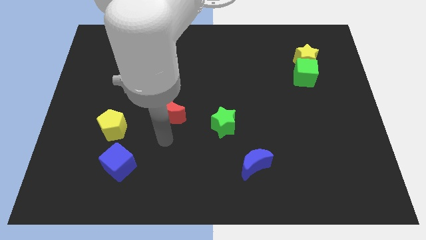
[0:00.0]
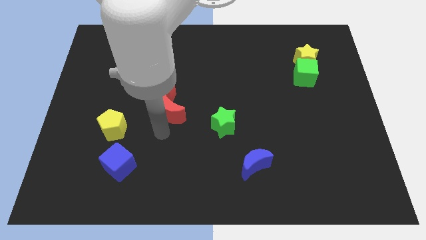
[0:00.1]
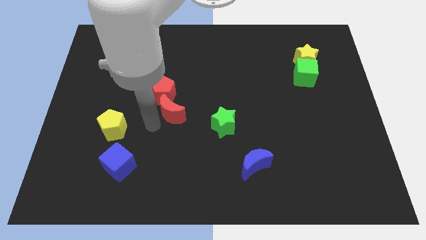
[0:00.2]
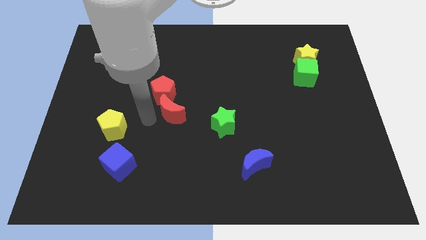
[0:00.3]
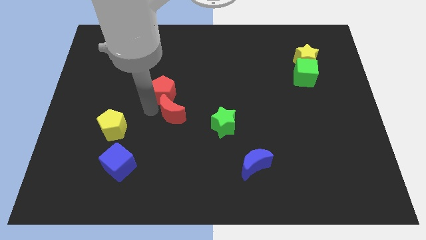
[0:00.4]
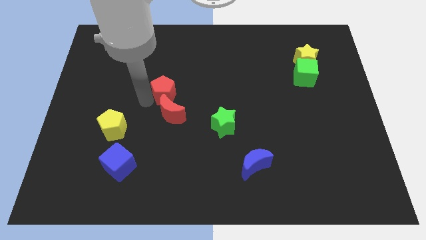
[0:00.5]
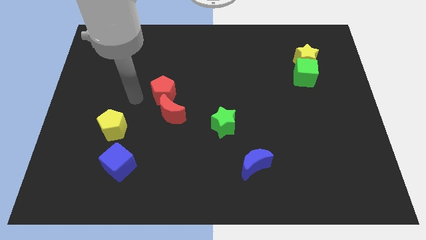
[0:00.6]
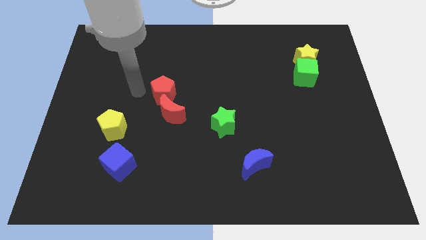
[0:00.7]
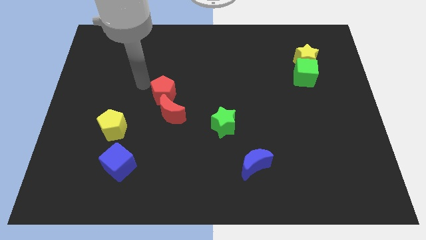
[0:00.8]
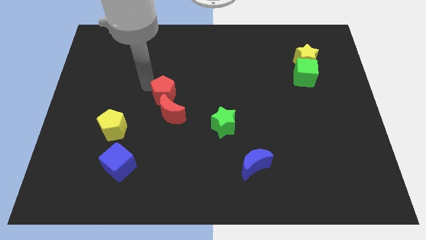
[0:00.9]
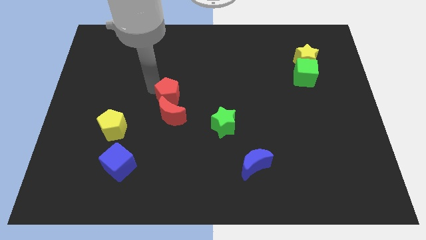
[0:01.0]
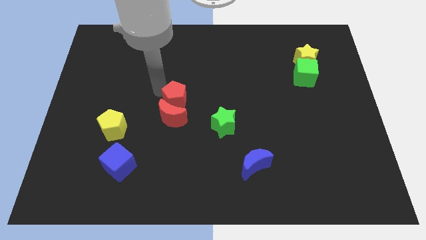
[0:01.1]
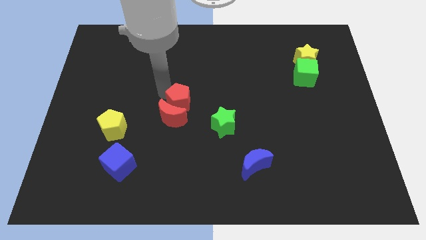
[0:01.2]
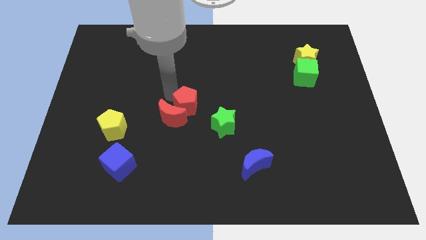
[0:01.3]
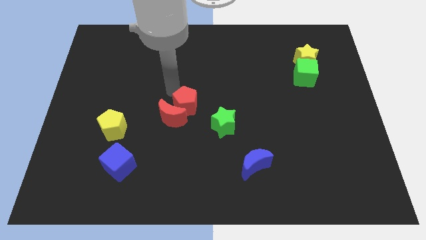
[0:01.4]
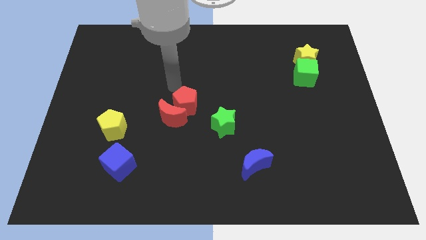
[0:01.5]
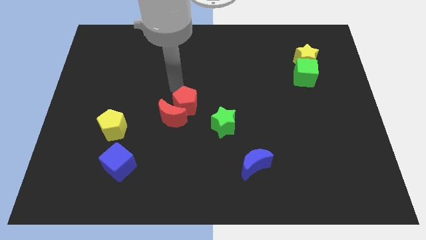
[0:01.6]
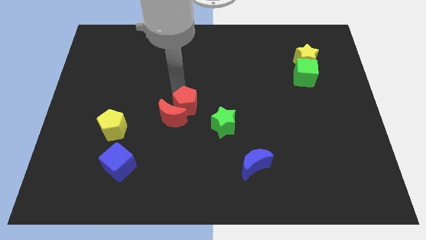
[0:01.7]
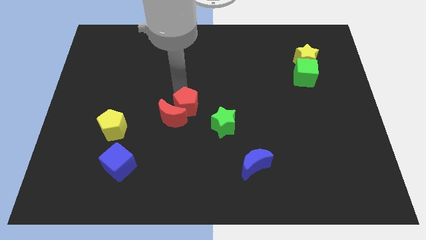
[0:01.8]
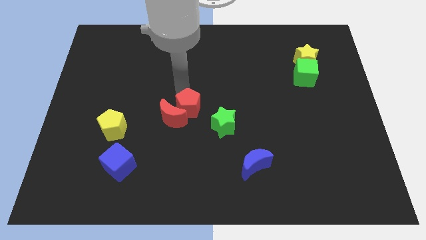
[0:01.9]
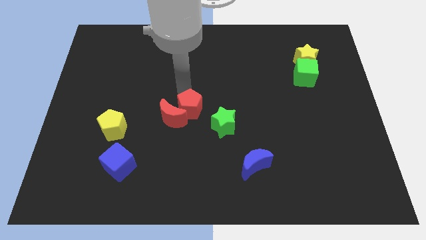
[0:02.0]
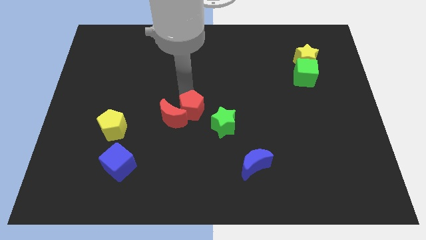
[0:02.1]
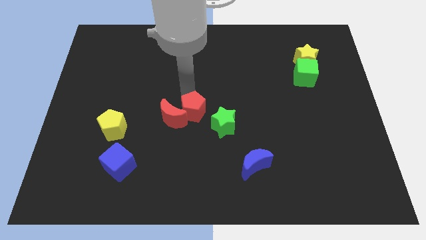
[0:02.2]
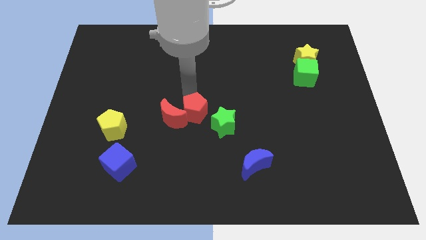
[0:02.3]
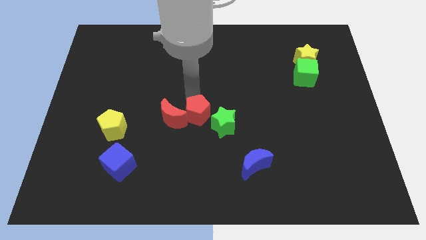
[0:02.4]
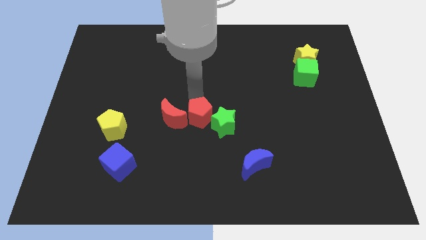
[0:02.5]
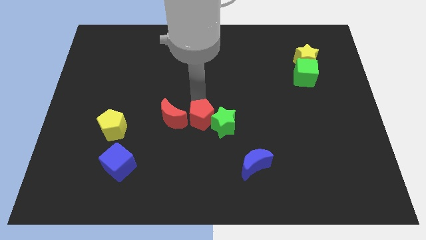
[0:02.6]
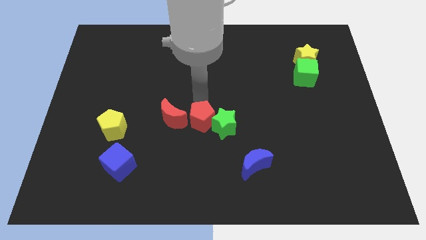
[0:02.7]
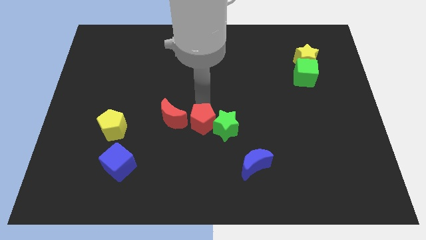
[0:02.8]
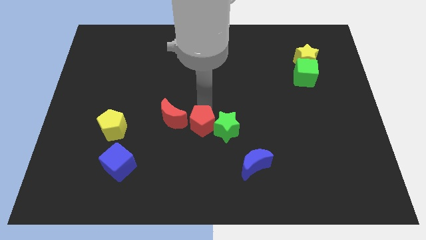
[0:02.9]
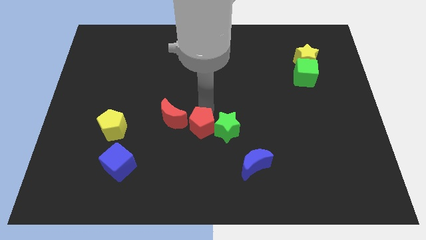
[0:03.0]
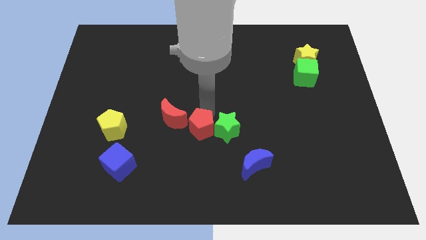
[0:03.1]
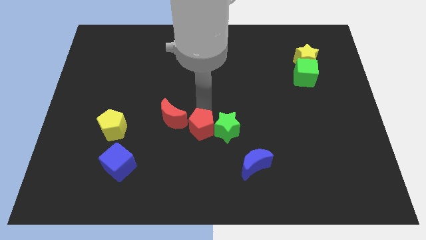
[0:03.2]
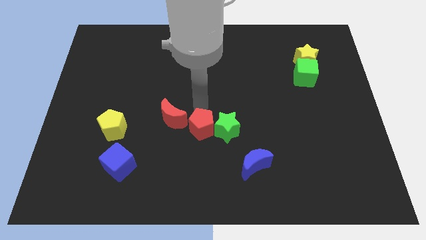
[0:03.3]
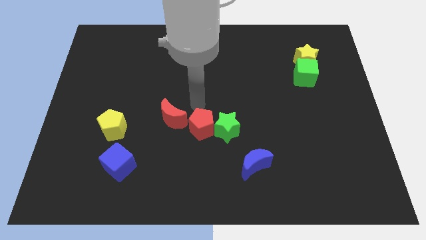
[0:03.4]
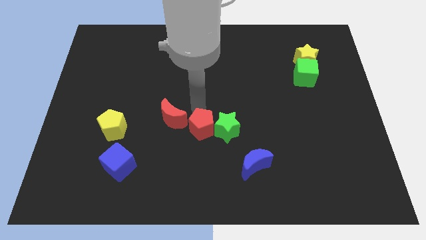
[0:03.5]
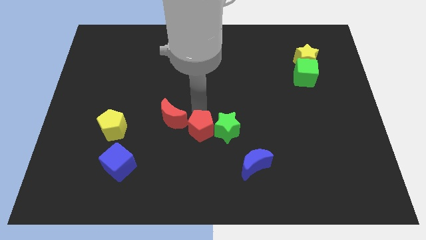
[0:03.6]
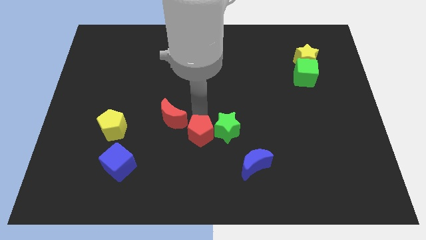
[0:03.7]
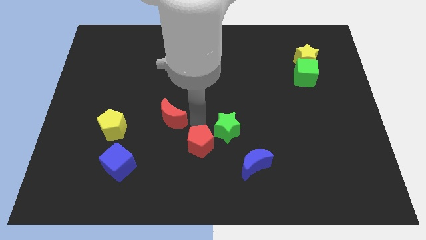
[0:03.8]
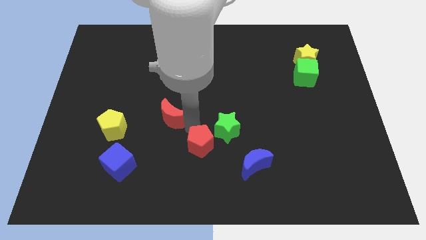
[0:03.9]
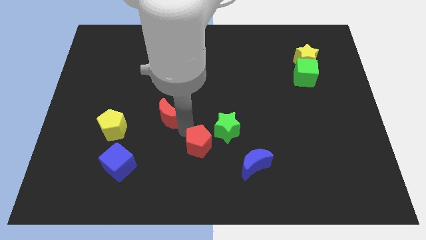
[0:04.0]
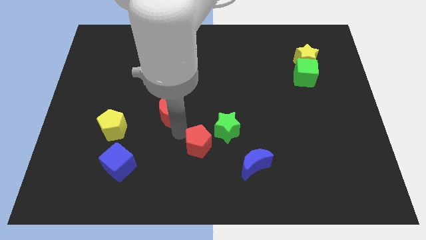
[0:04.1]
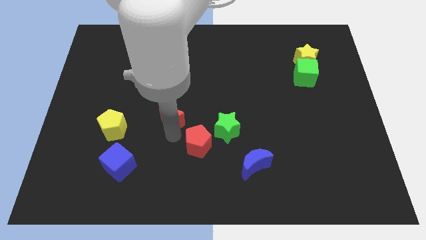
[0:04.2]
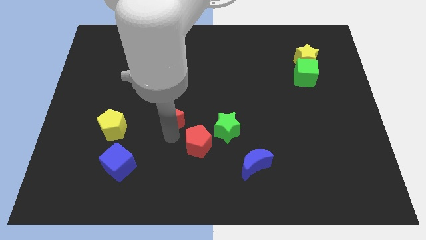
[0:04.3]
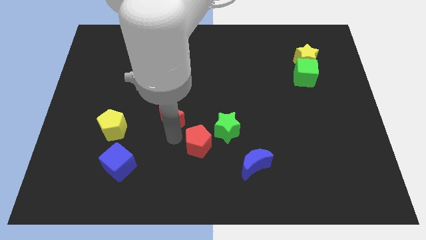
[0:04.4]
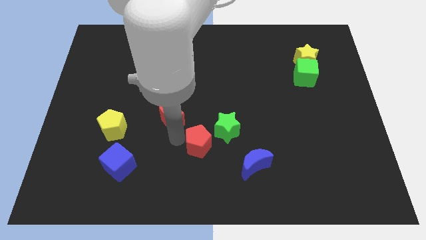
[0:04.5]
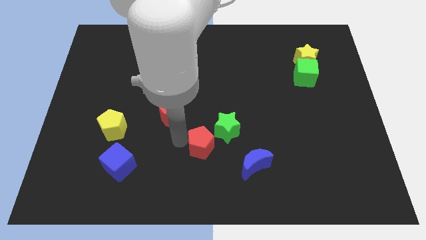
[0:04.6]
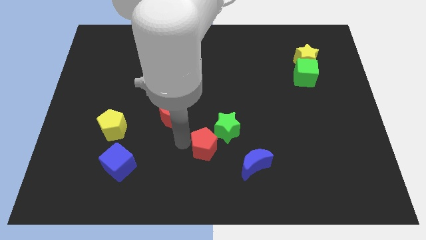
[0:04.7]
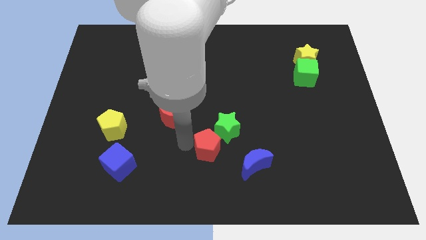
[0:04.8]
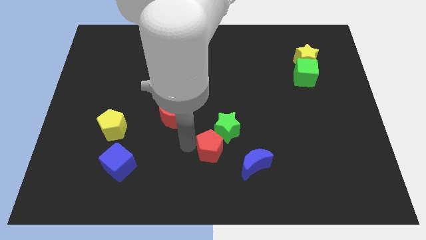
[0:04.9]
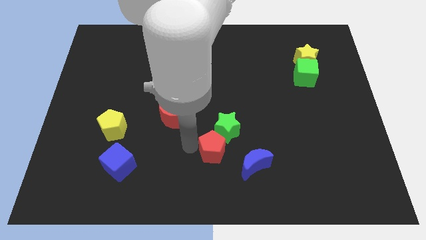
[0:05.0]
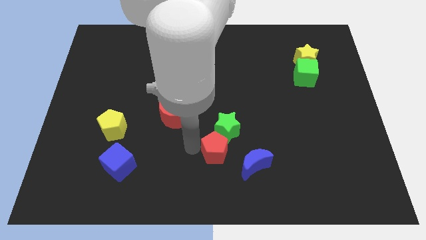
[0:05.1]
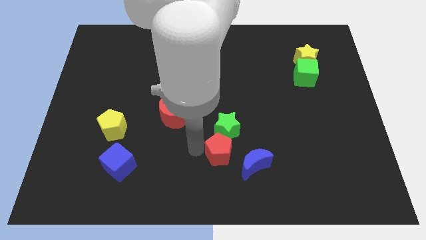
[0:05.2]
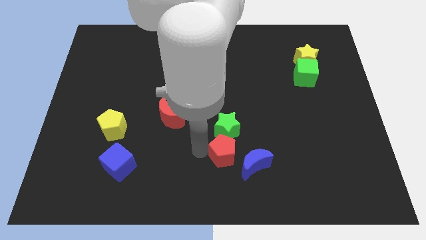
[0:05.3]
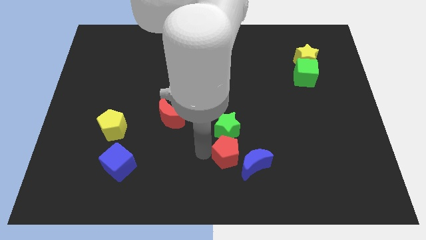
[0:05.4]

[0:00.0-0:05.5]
put the red pentagon close to the blue moon

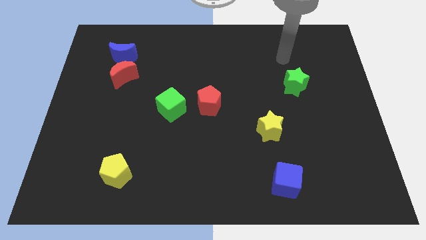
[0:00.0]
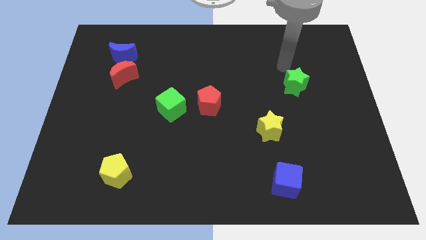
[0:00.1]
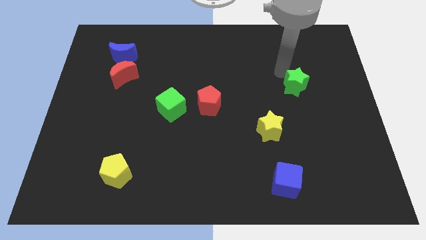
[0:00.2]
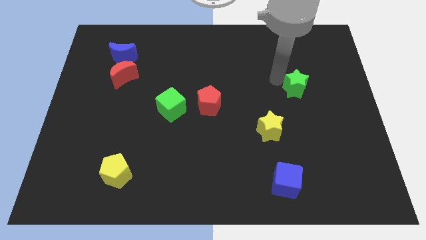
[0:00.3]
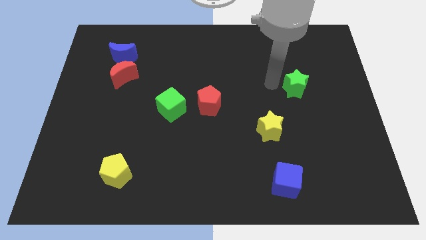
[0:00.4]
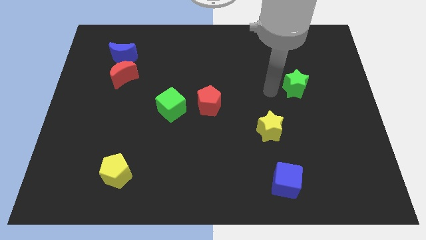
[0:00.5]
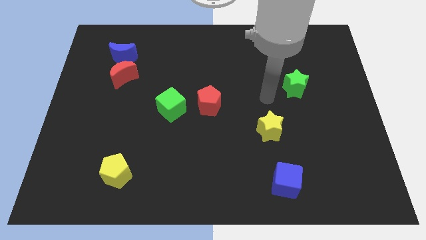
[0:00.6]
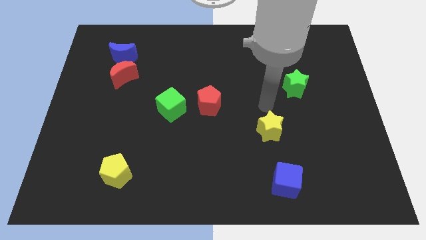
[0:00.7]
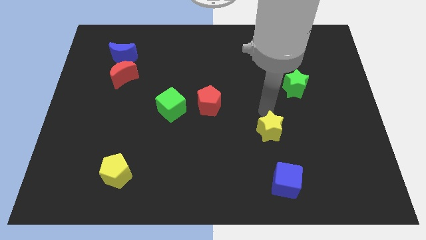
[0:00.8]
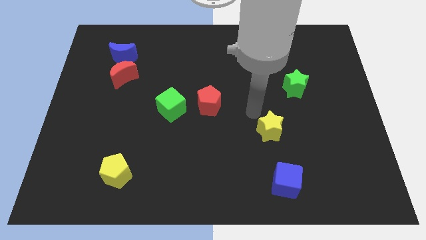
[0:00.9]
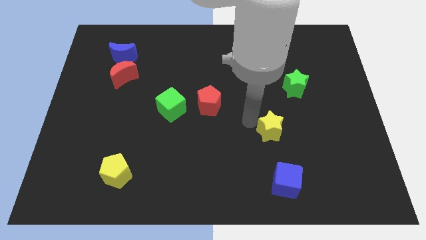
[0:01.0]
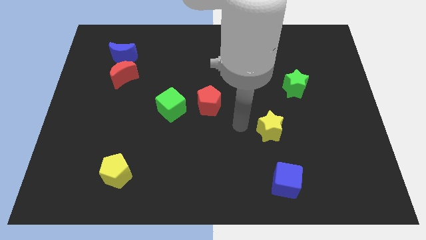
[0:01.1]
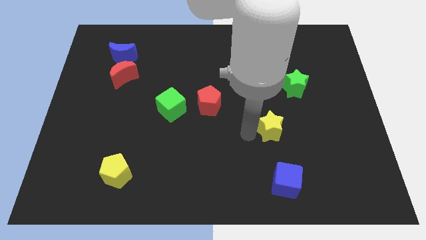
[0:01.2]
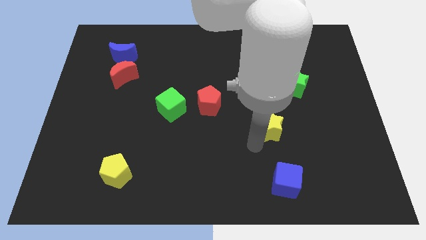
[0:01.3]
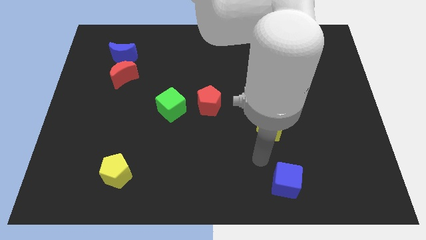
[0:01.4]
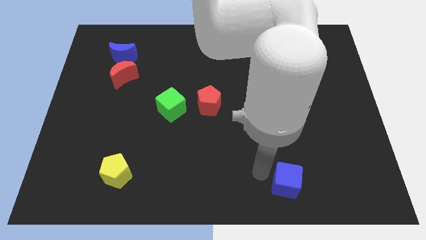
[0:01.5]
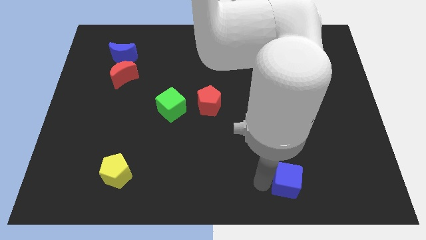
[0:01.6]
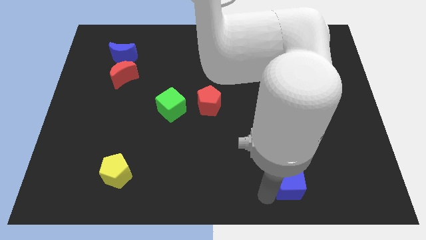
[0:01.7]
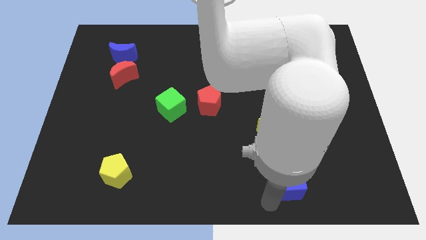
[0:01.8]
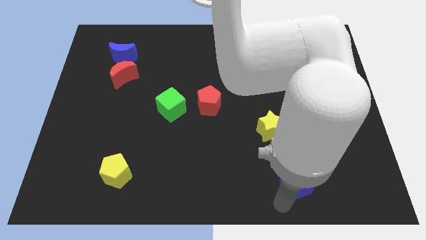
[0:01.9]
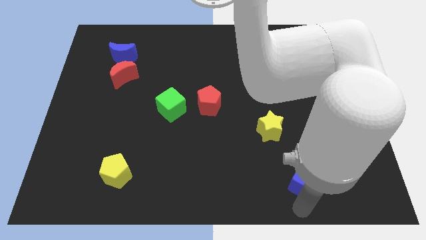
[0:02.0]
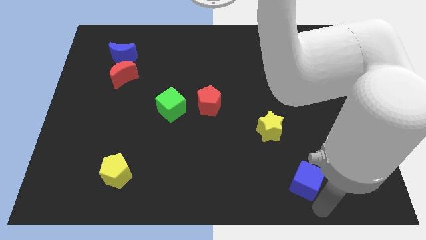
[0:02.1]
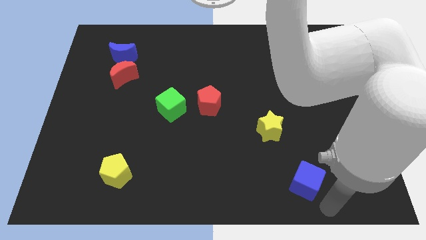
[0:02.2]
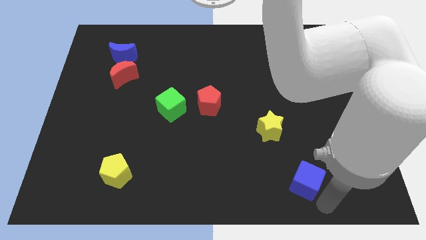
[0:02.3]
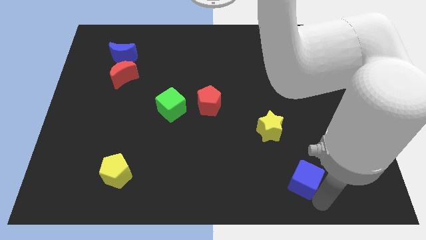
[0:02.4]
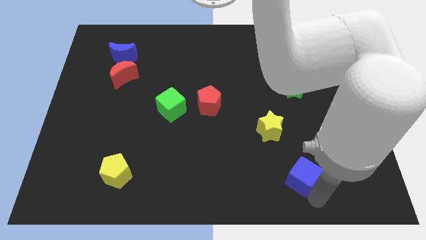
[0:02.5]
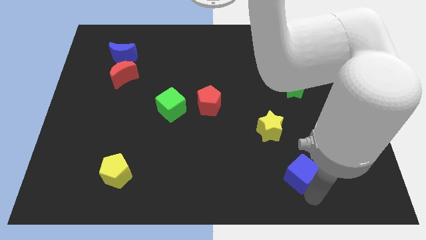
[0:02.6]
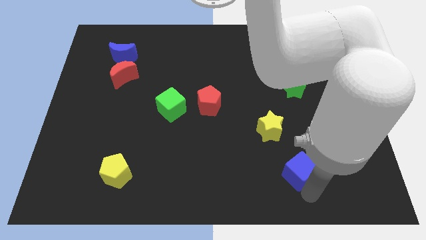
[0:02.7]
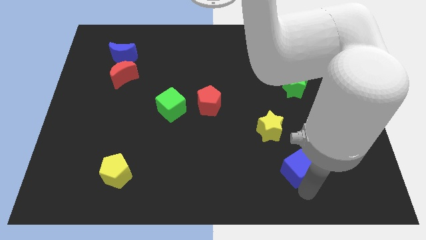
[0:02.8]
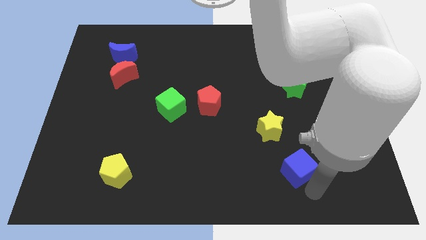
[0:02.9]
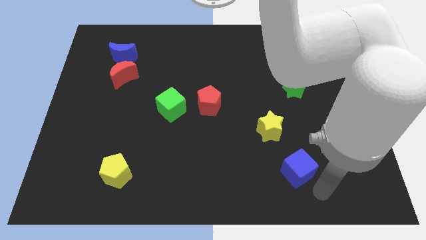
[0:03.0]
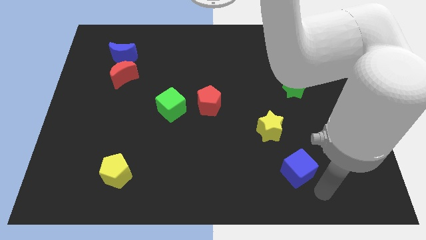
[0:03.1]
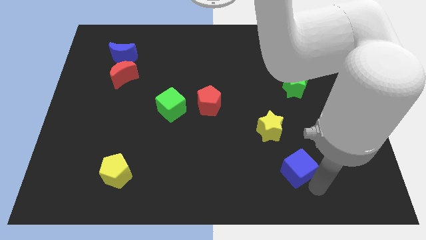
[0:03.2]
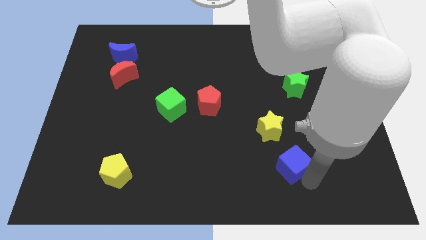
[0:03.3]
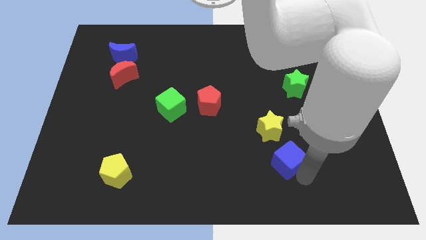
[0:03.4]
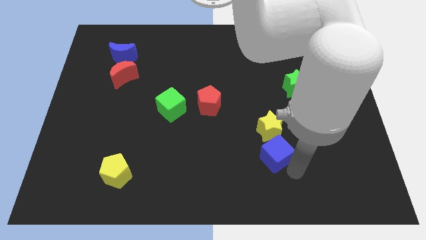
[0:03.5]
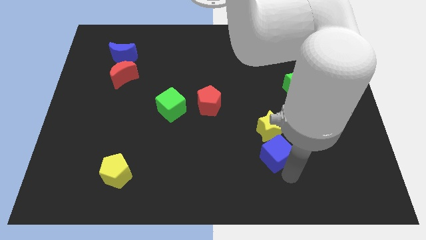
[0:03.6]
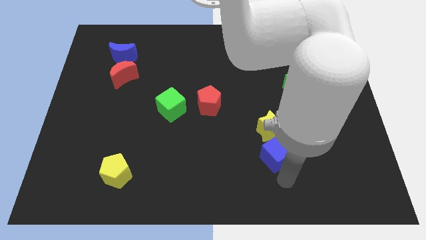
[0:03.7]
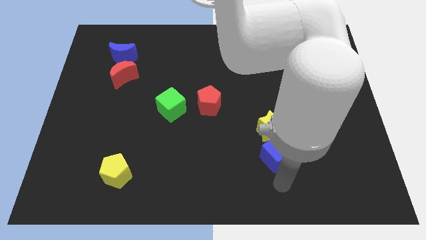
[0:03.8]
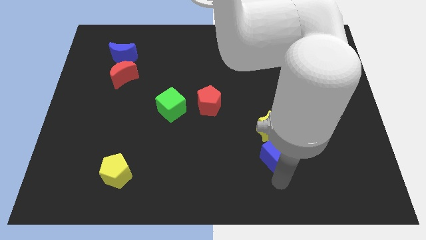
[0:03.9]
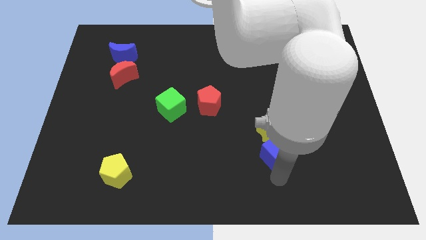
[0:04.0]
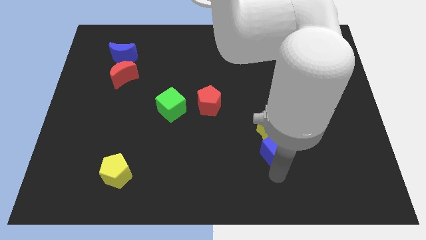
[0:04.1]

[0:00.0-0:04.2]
push the blue cube next to the yellow star
